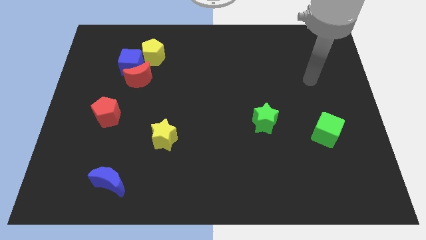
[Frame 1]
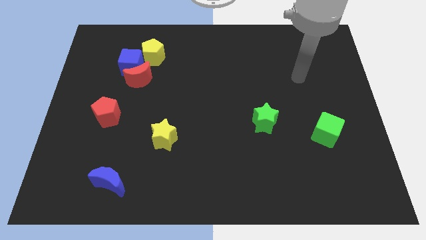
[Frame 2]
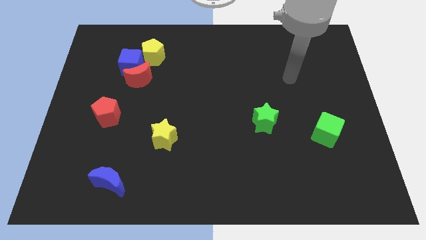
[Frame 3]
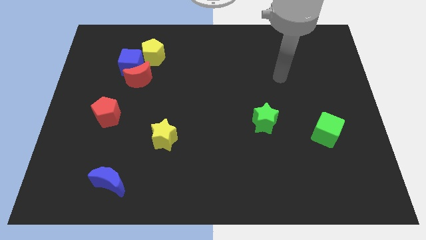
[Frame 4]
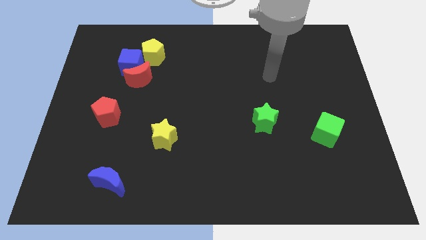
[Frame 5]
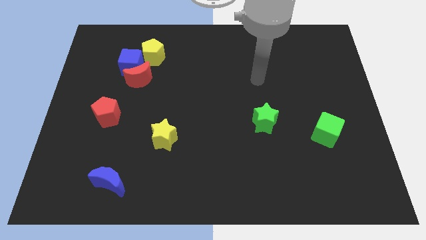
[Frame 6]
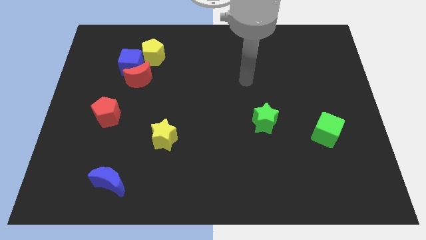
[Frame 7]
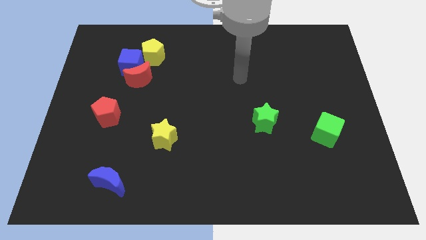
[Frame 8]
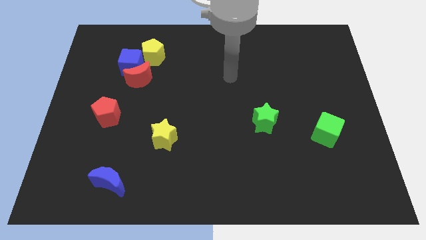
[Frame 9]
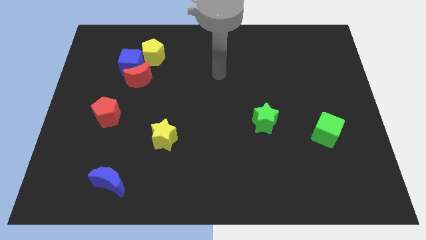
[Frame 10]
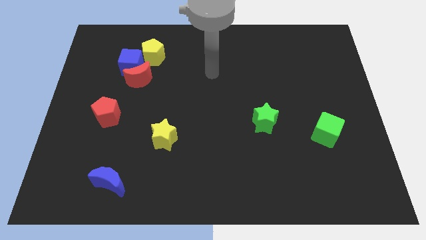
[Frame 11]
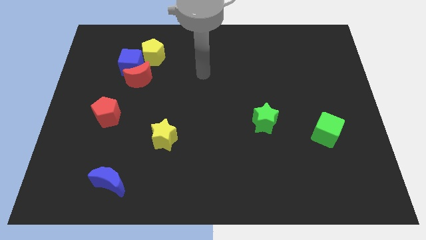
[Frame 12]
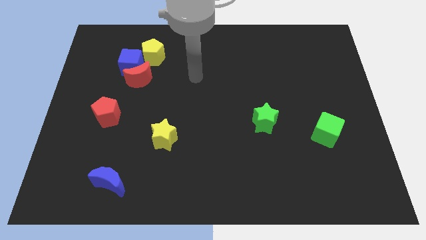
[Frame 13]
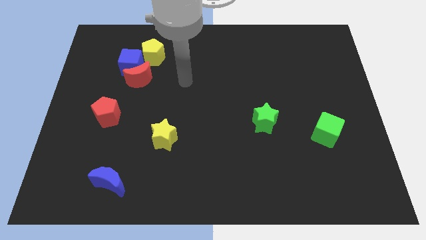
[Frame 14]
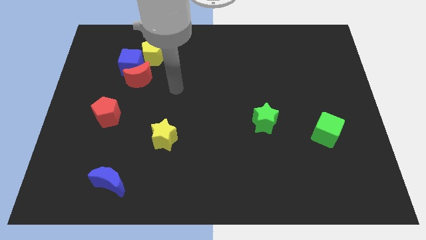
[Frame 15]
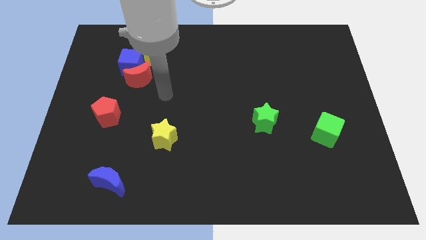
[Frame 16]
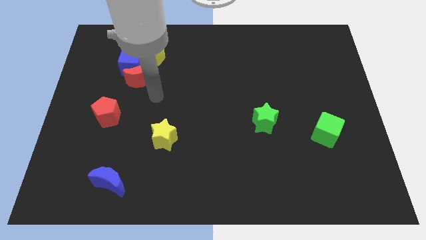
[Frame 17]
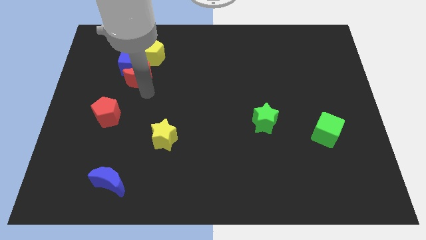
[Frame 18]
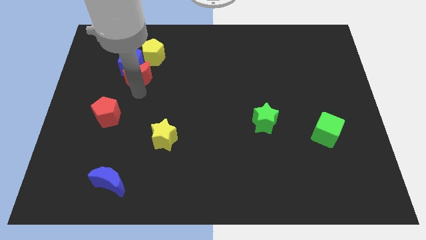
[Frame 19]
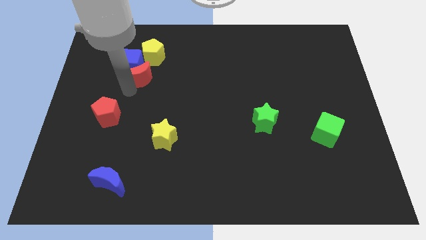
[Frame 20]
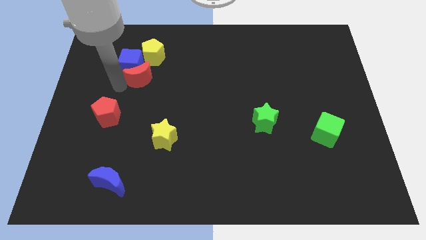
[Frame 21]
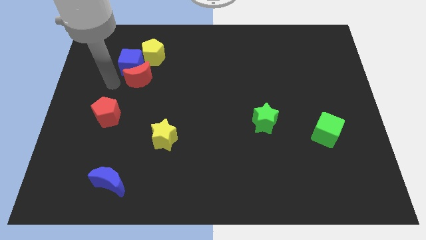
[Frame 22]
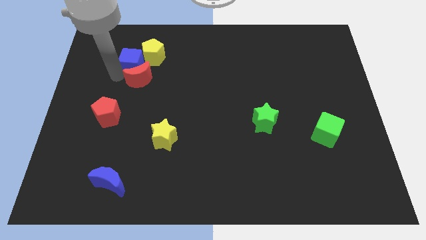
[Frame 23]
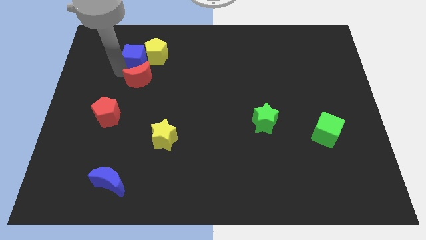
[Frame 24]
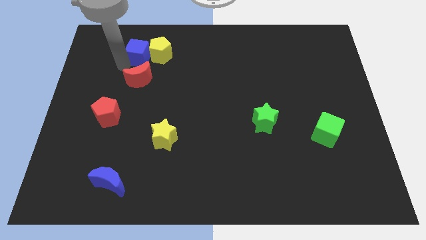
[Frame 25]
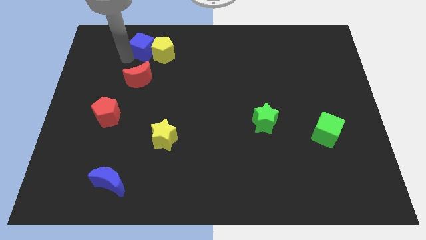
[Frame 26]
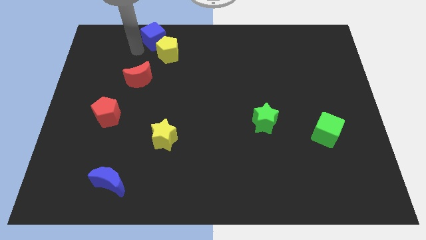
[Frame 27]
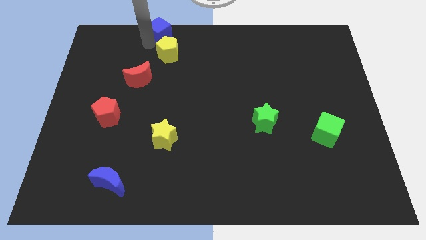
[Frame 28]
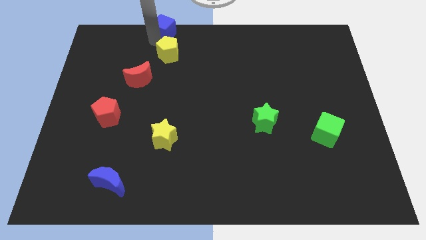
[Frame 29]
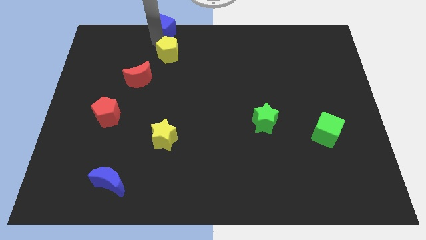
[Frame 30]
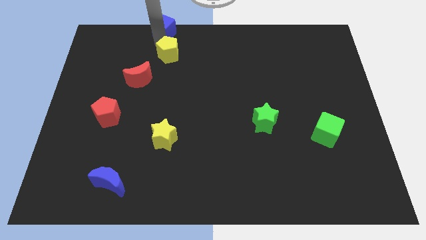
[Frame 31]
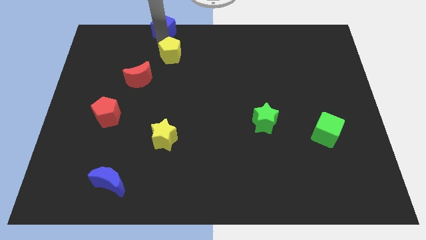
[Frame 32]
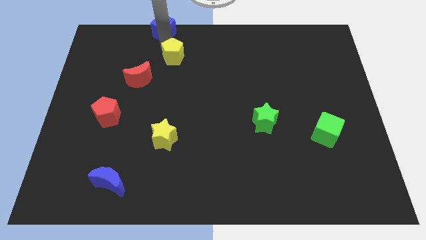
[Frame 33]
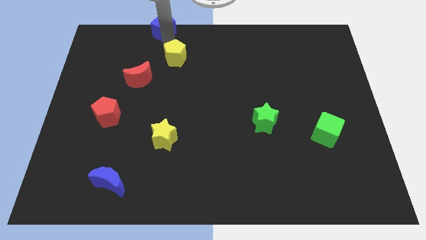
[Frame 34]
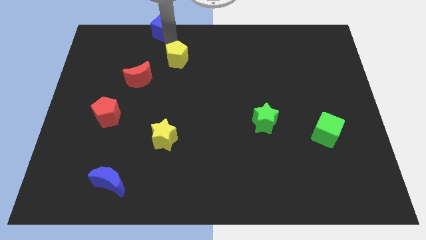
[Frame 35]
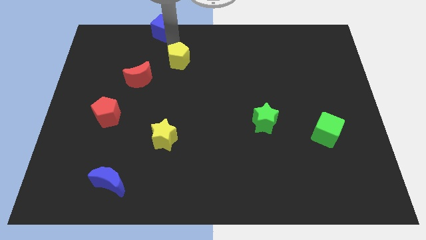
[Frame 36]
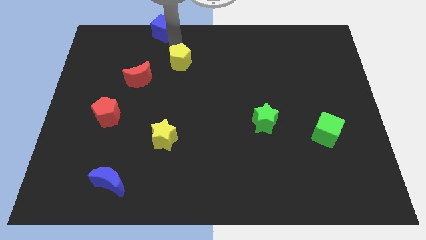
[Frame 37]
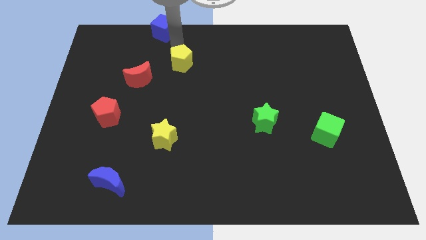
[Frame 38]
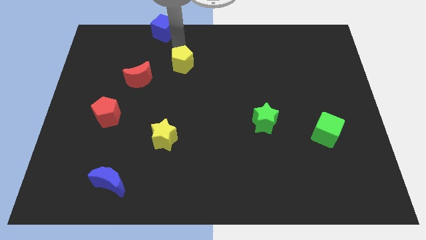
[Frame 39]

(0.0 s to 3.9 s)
slightly slide the yellow pentagon down and to the right diagonally

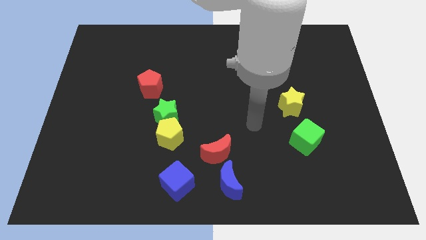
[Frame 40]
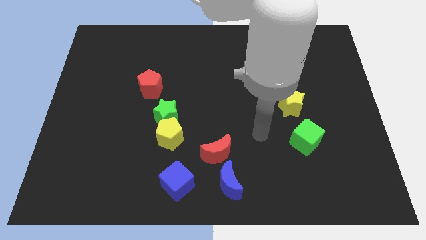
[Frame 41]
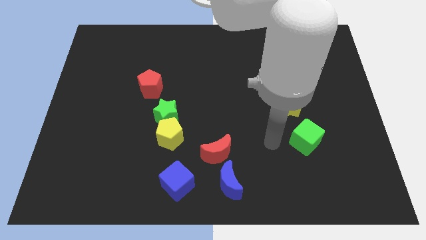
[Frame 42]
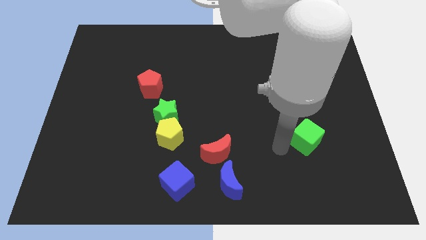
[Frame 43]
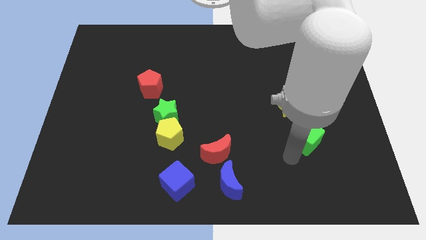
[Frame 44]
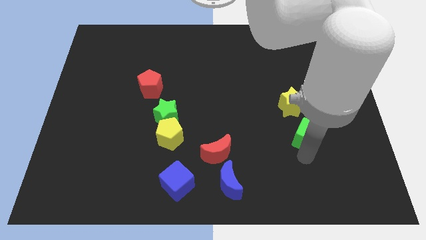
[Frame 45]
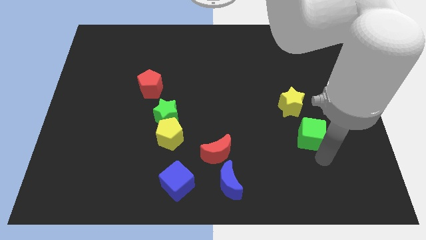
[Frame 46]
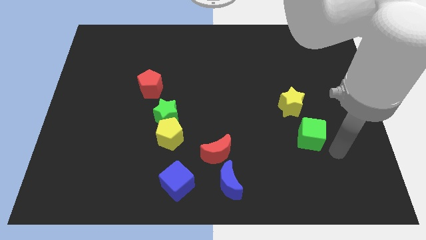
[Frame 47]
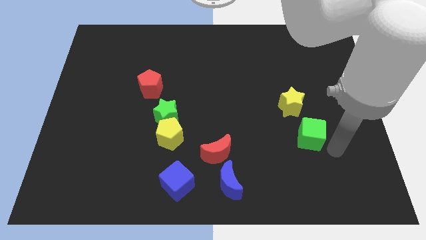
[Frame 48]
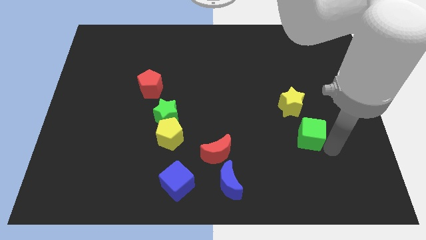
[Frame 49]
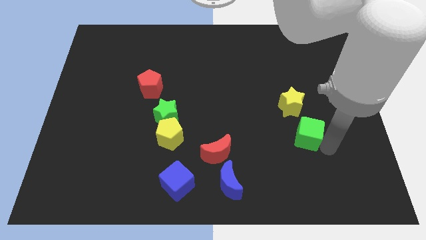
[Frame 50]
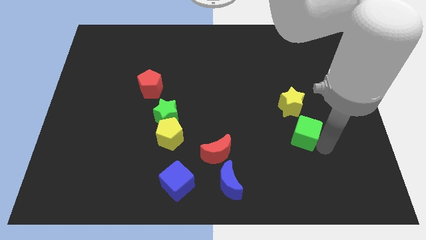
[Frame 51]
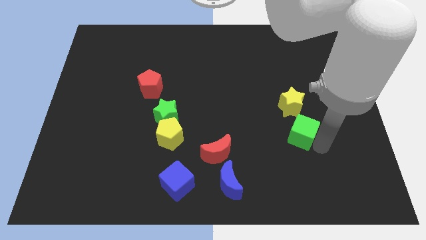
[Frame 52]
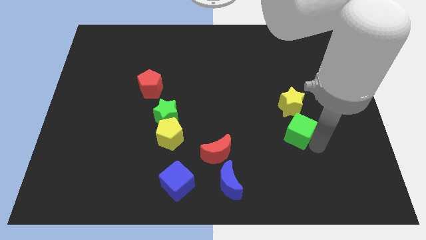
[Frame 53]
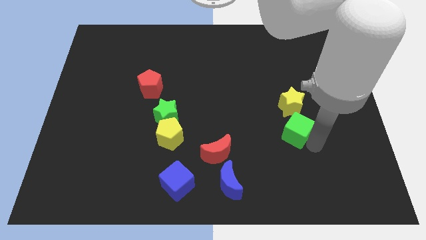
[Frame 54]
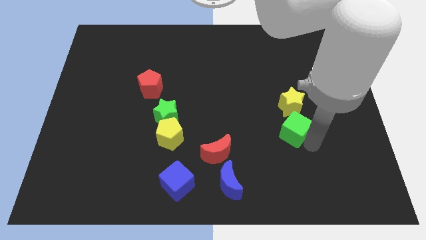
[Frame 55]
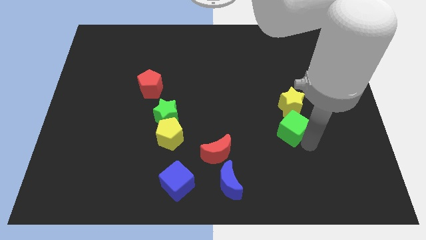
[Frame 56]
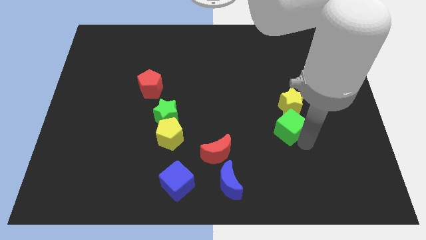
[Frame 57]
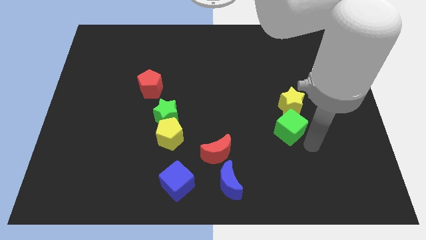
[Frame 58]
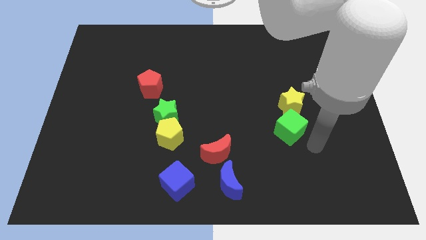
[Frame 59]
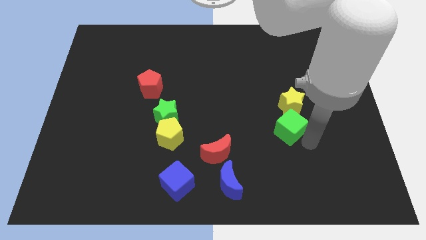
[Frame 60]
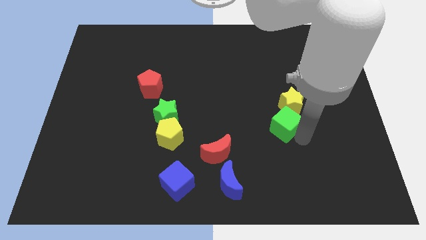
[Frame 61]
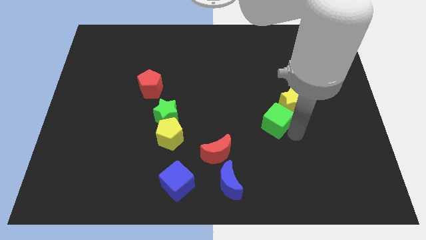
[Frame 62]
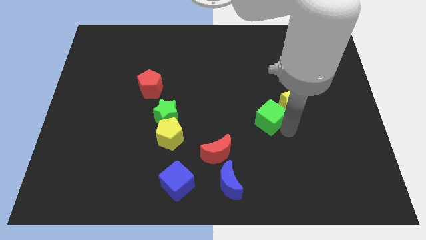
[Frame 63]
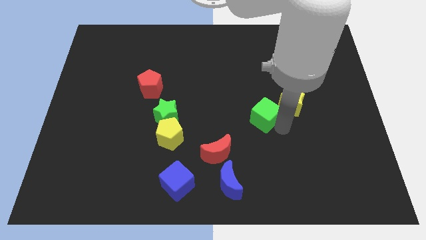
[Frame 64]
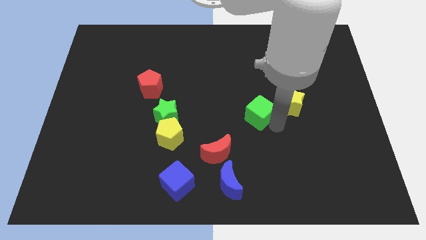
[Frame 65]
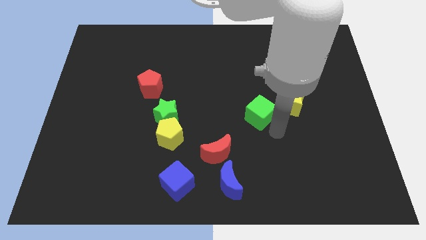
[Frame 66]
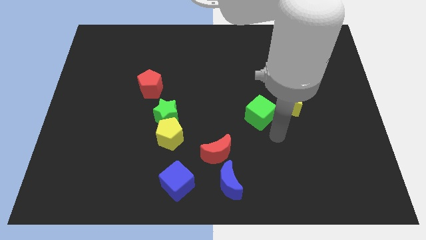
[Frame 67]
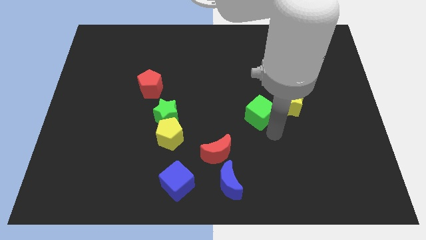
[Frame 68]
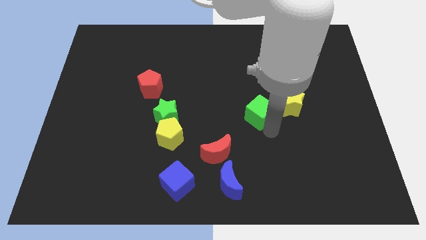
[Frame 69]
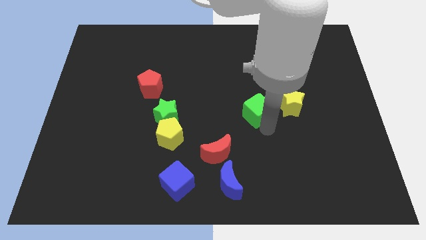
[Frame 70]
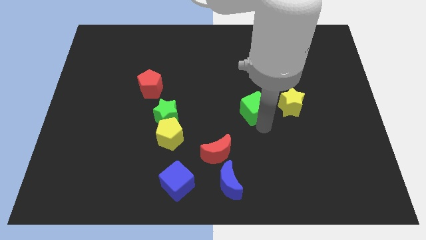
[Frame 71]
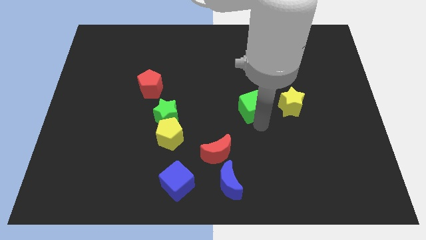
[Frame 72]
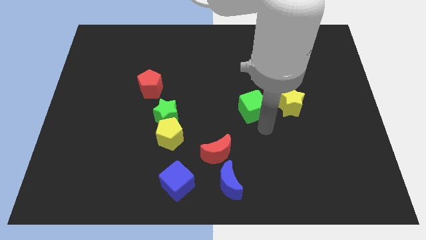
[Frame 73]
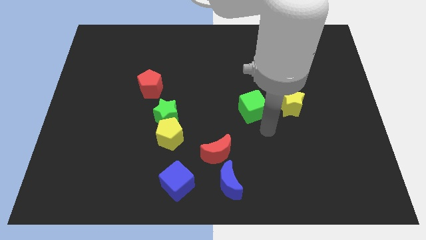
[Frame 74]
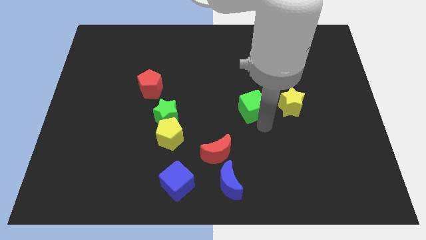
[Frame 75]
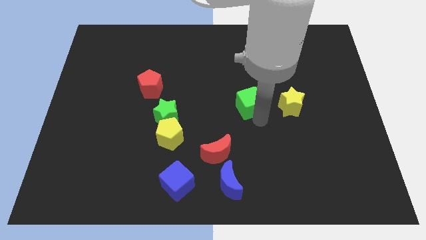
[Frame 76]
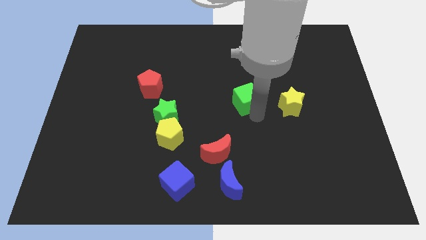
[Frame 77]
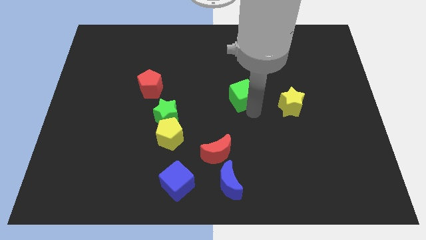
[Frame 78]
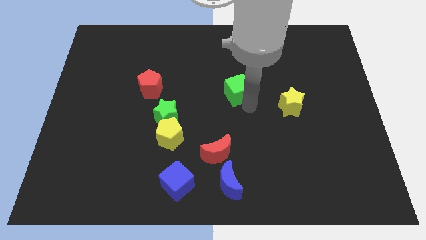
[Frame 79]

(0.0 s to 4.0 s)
slide the green cube diagonally upwards and left
